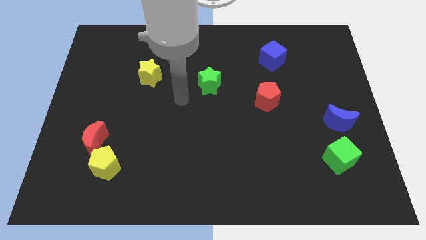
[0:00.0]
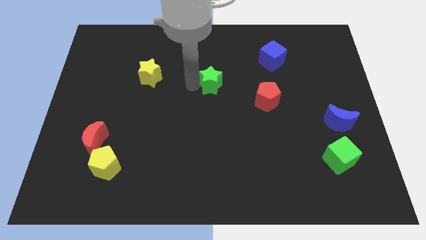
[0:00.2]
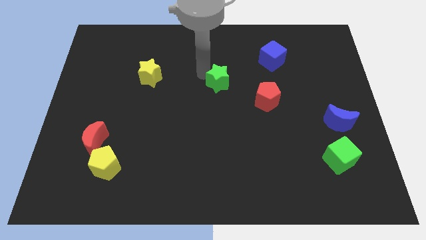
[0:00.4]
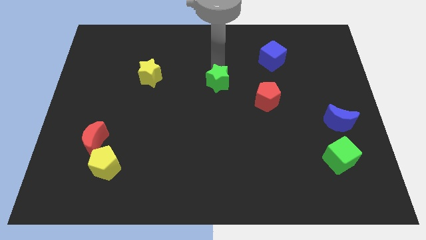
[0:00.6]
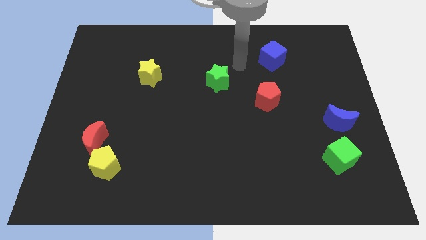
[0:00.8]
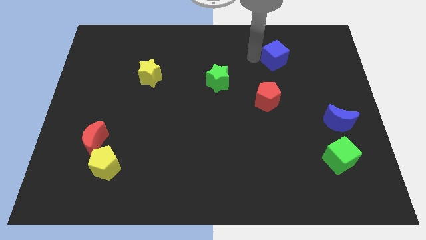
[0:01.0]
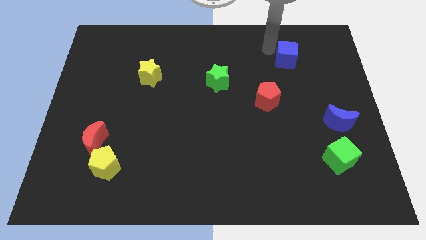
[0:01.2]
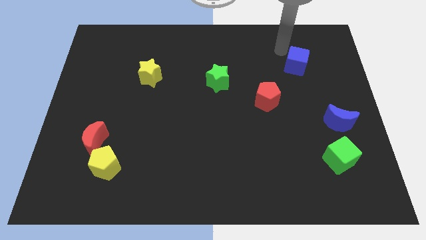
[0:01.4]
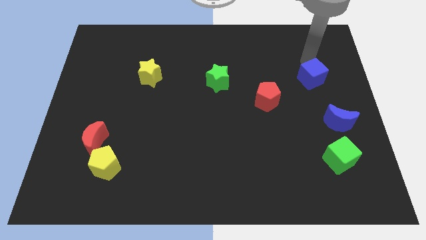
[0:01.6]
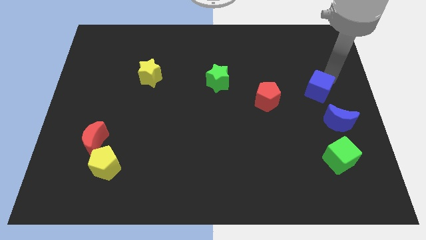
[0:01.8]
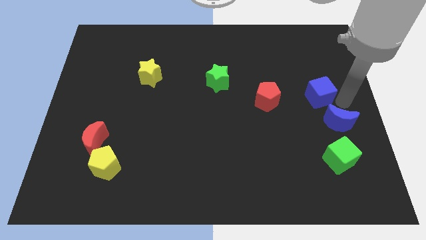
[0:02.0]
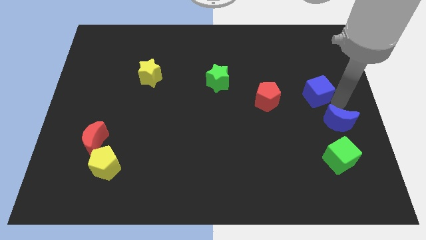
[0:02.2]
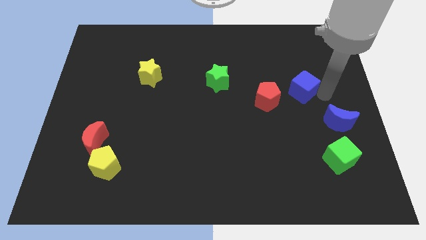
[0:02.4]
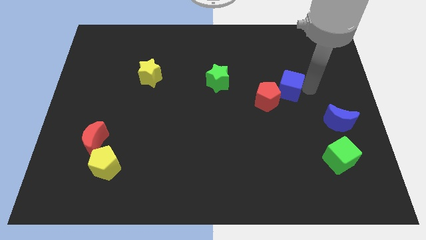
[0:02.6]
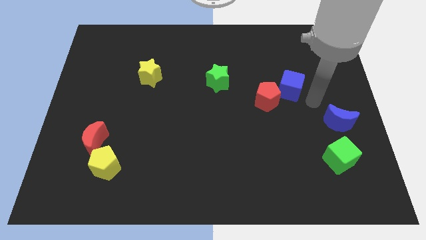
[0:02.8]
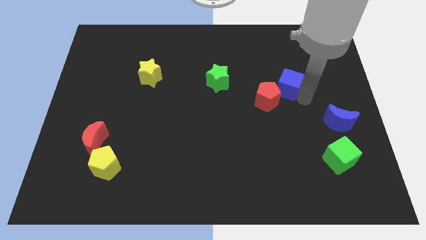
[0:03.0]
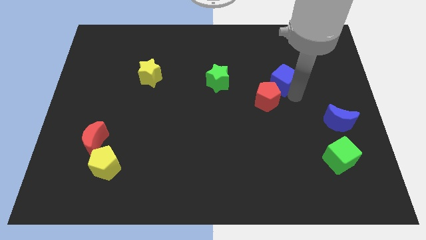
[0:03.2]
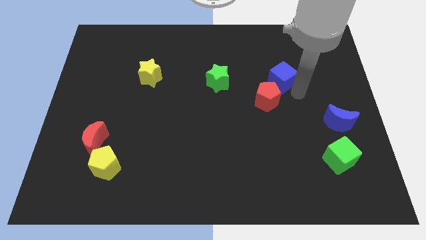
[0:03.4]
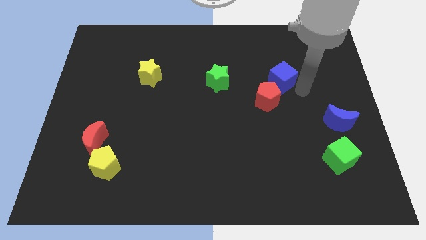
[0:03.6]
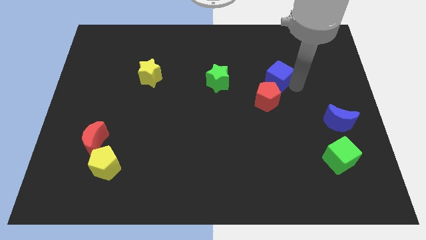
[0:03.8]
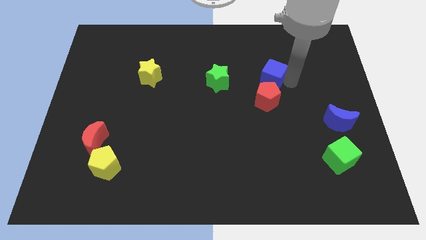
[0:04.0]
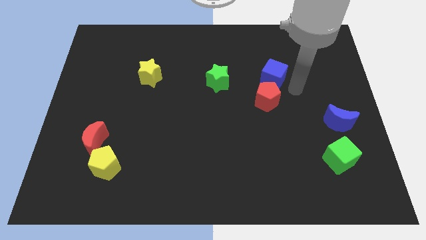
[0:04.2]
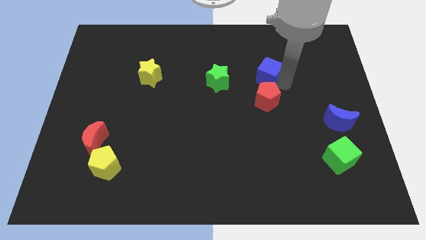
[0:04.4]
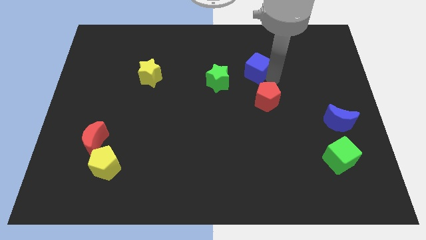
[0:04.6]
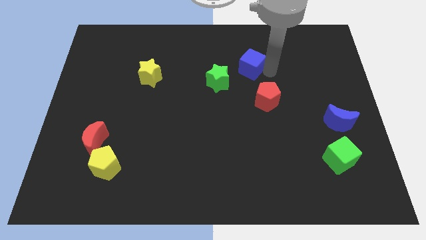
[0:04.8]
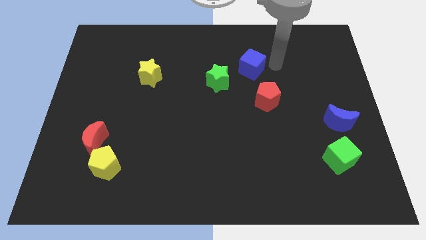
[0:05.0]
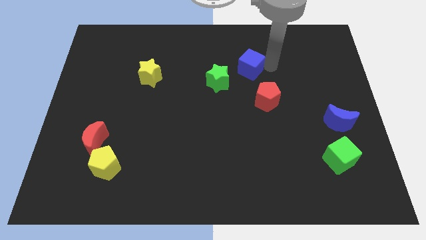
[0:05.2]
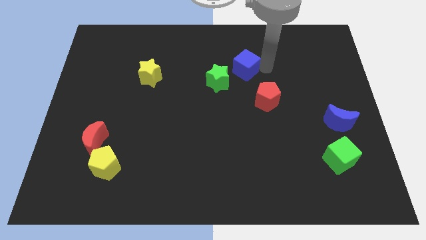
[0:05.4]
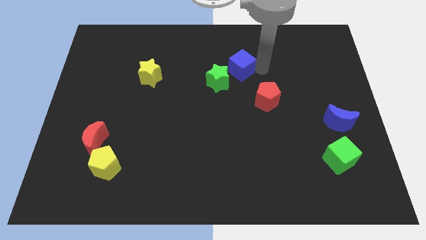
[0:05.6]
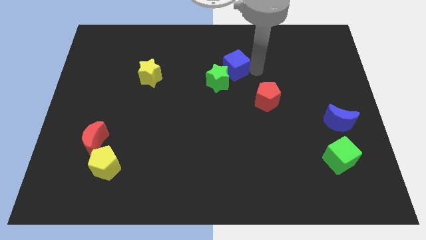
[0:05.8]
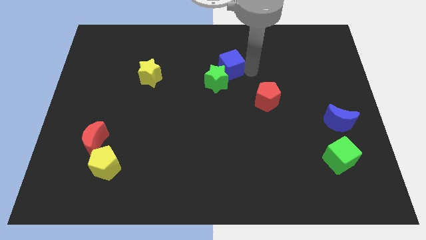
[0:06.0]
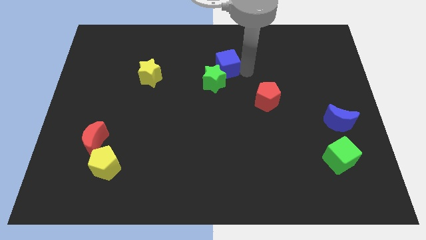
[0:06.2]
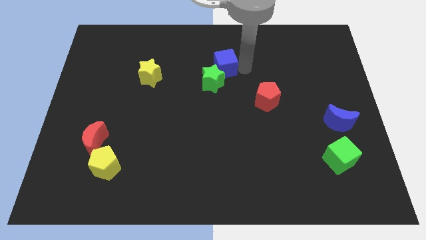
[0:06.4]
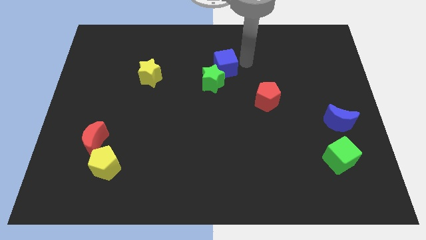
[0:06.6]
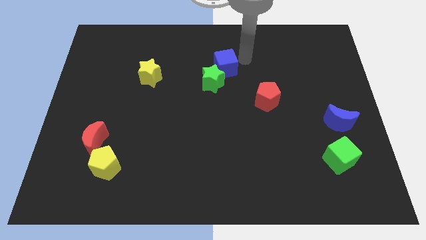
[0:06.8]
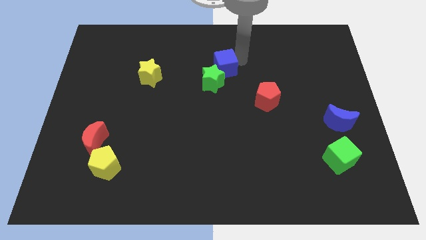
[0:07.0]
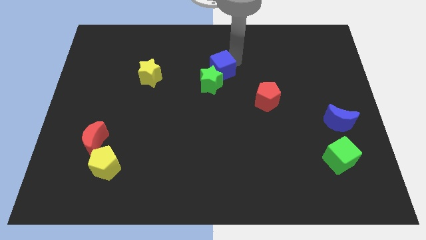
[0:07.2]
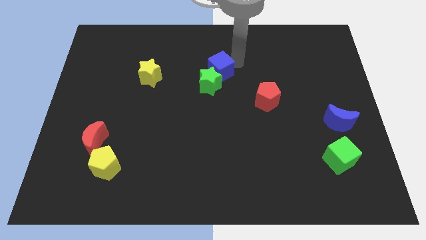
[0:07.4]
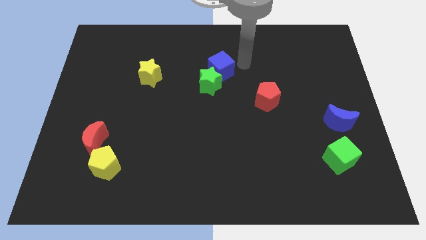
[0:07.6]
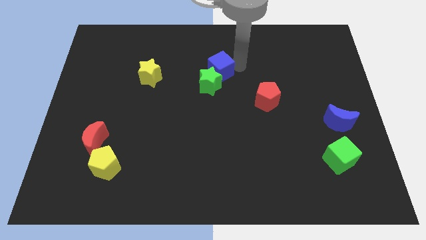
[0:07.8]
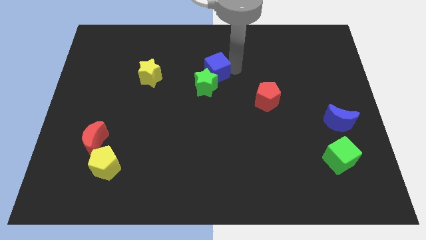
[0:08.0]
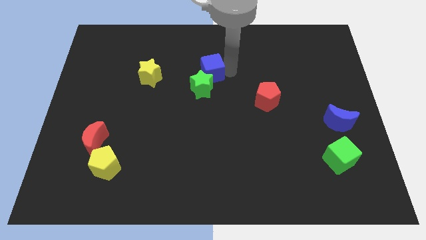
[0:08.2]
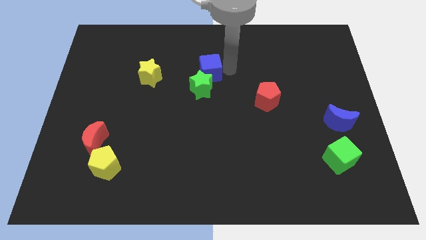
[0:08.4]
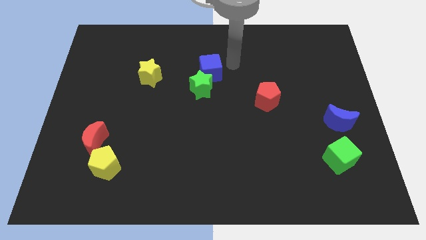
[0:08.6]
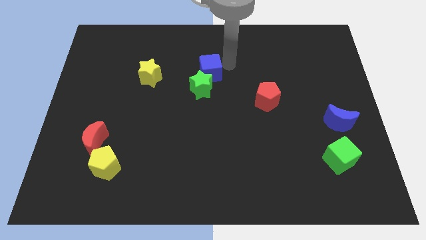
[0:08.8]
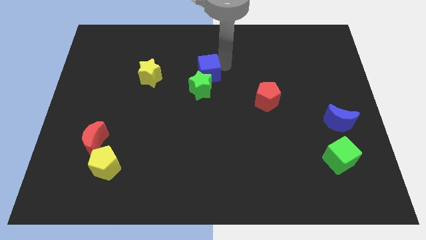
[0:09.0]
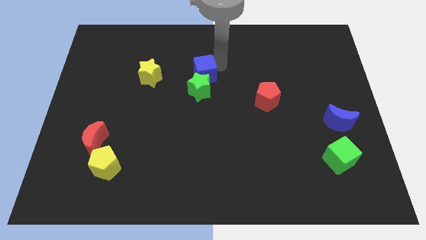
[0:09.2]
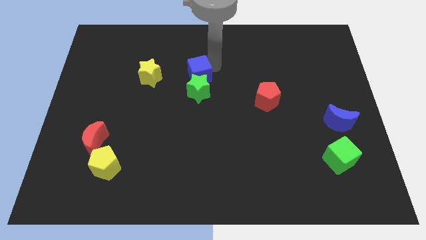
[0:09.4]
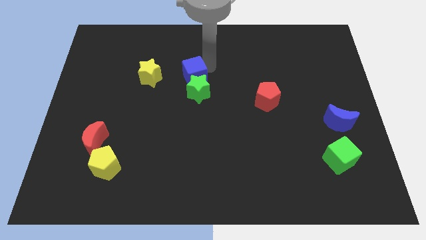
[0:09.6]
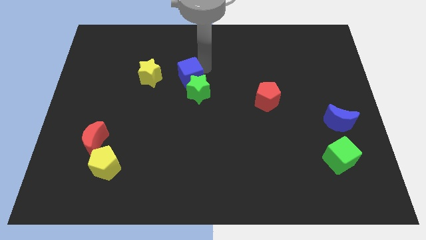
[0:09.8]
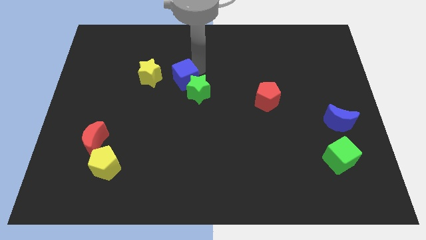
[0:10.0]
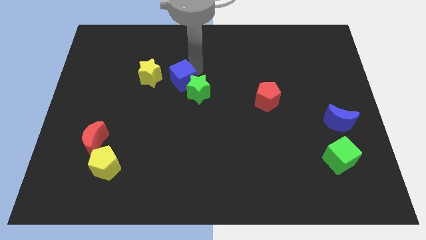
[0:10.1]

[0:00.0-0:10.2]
slide the blue cube diagonally down and to the right of the yellow star

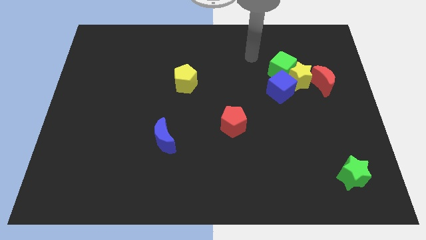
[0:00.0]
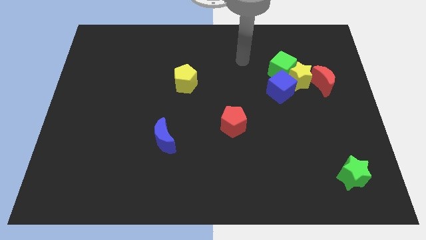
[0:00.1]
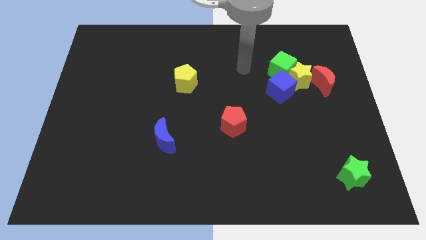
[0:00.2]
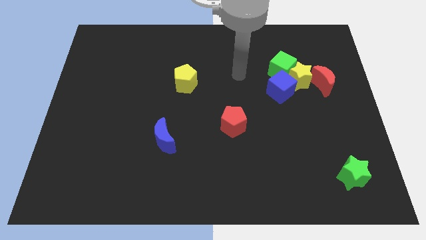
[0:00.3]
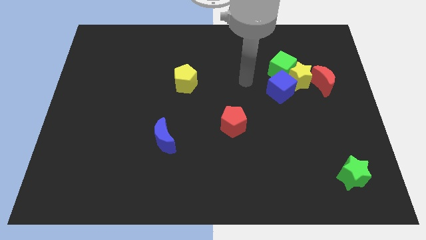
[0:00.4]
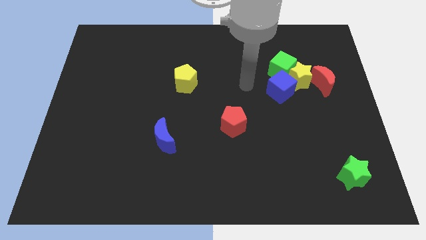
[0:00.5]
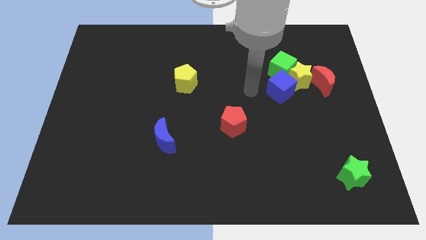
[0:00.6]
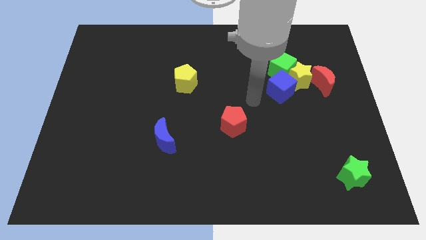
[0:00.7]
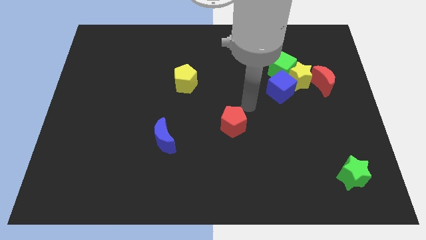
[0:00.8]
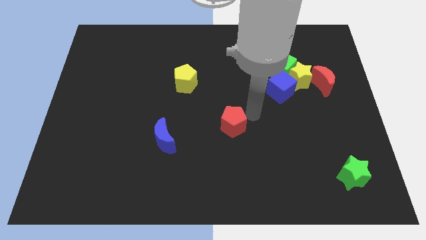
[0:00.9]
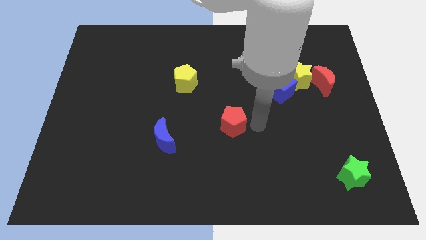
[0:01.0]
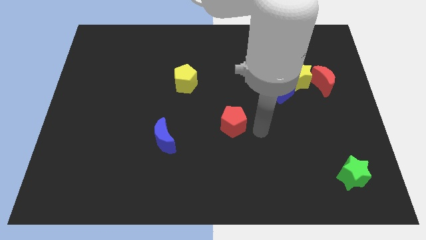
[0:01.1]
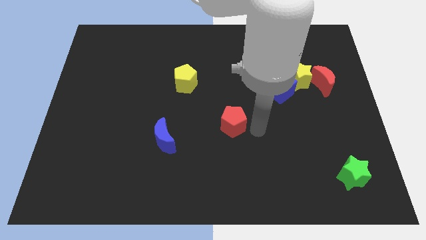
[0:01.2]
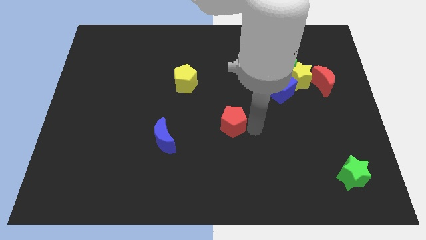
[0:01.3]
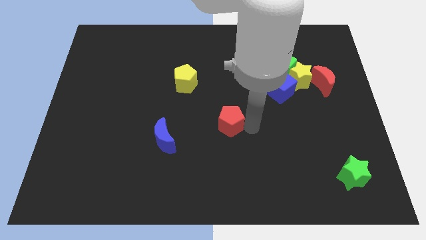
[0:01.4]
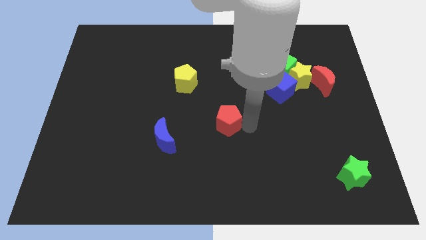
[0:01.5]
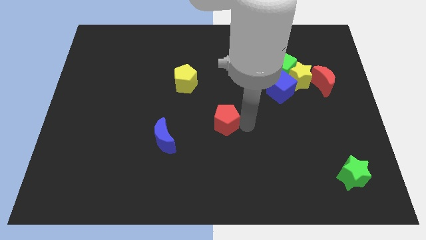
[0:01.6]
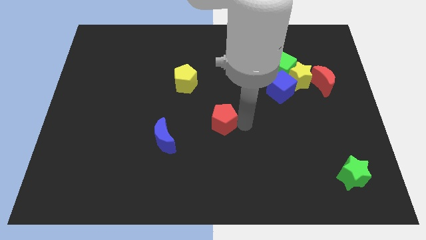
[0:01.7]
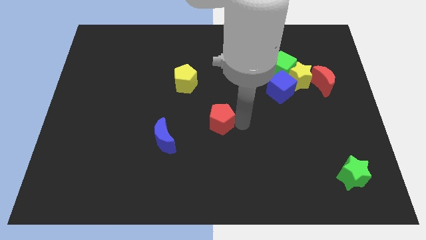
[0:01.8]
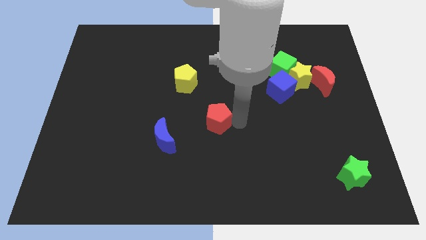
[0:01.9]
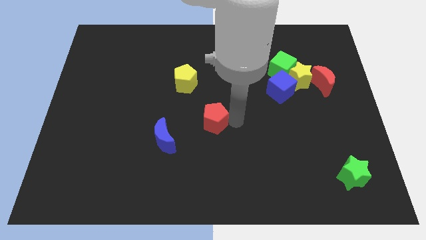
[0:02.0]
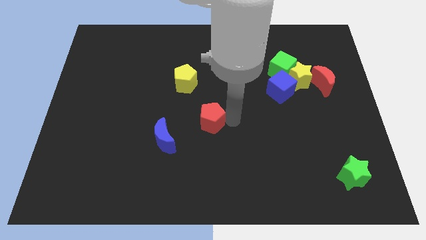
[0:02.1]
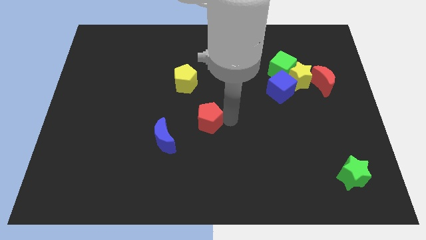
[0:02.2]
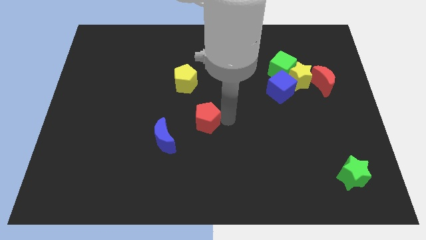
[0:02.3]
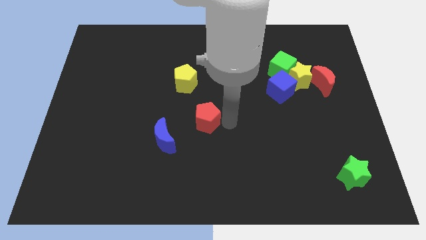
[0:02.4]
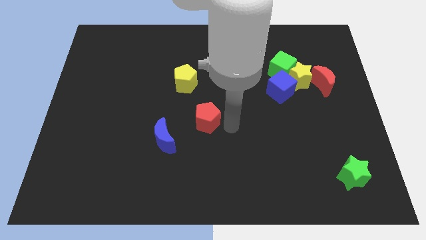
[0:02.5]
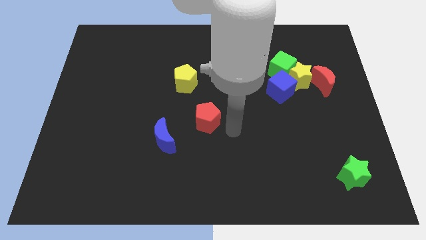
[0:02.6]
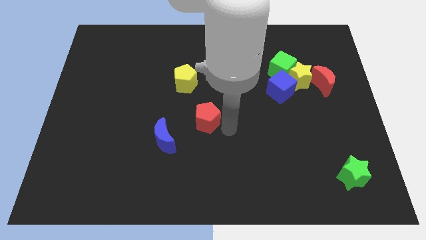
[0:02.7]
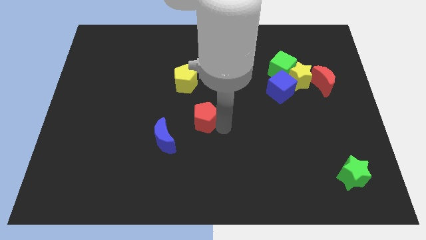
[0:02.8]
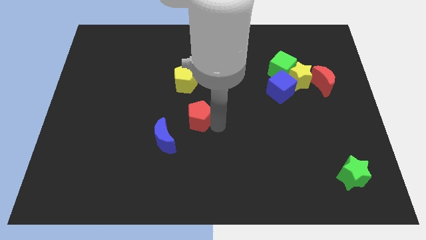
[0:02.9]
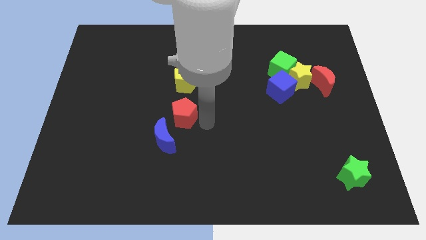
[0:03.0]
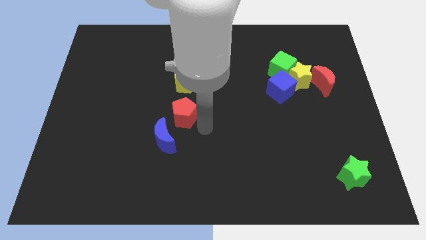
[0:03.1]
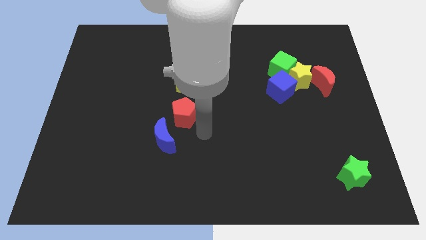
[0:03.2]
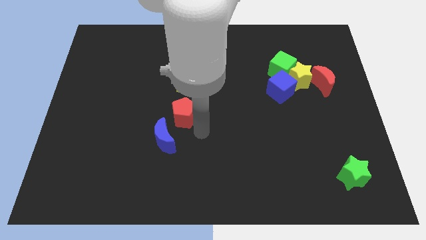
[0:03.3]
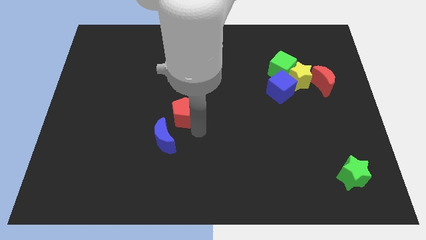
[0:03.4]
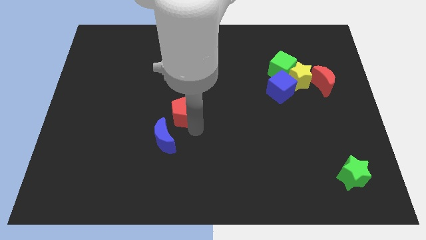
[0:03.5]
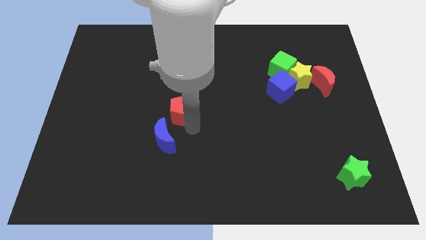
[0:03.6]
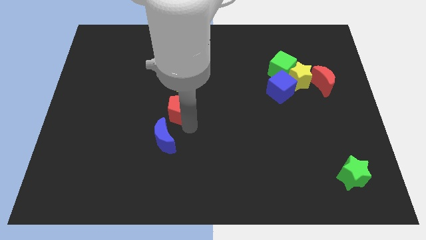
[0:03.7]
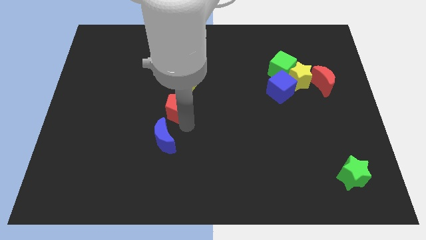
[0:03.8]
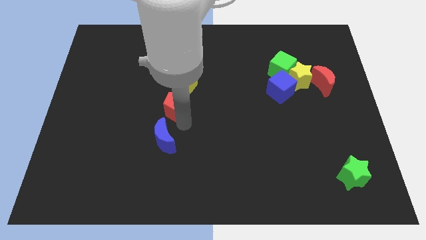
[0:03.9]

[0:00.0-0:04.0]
move the red pentagon to the bottom left side of the yellow pentagon
